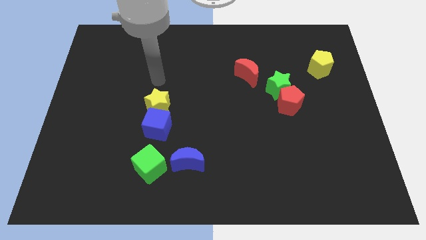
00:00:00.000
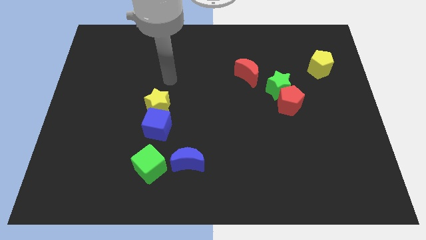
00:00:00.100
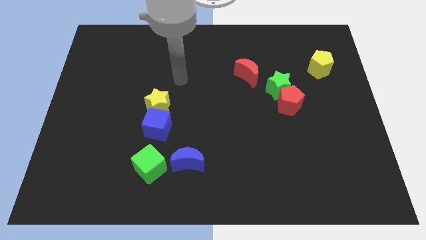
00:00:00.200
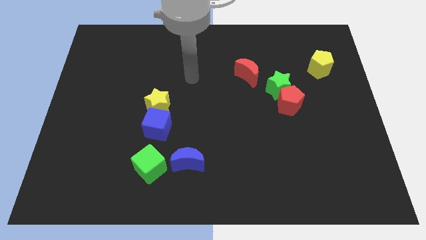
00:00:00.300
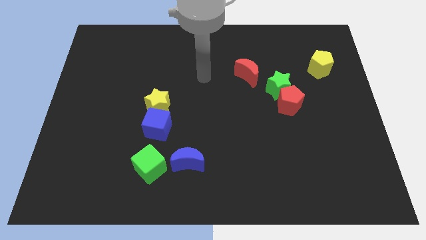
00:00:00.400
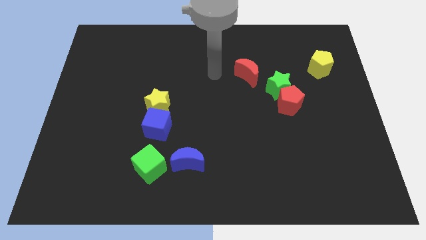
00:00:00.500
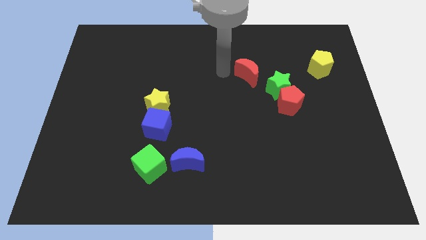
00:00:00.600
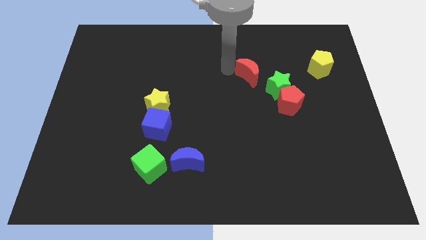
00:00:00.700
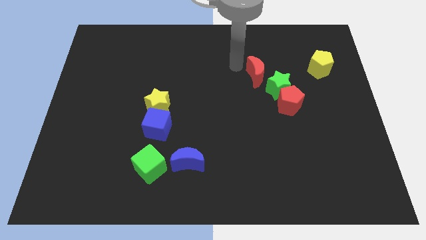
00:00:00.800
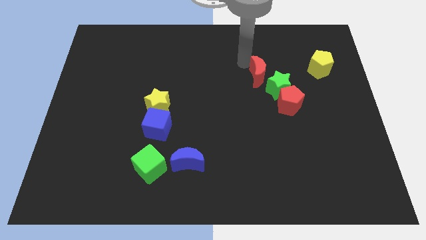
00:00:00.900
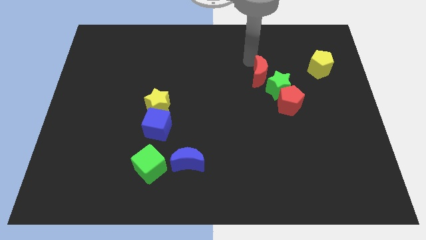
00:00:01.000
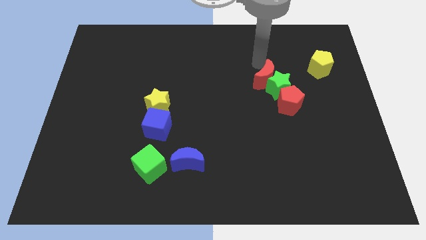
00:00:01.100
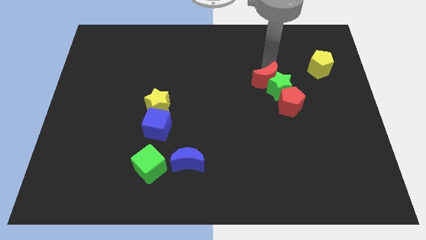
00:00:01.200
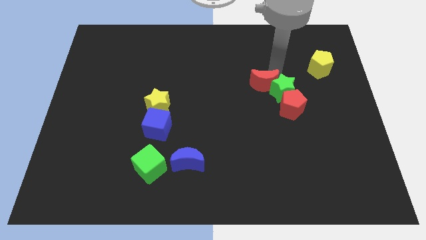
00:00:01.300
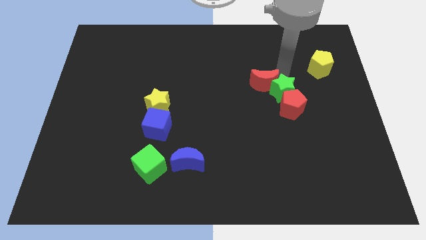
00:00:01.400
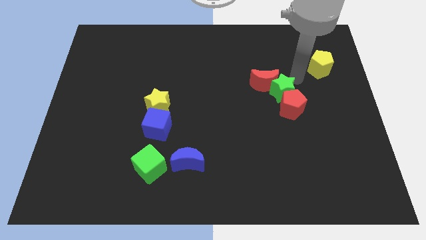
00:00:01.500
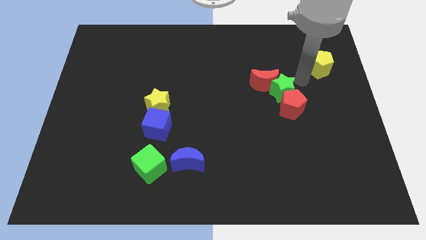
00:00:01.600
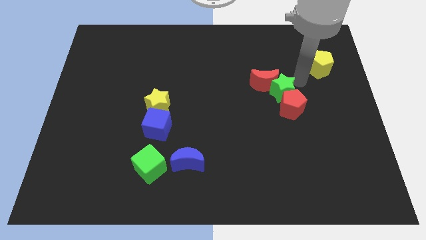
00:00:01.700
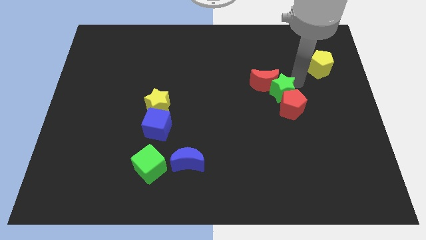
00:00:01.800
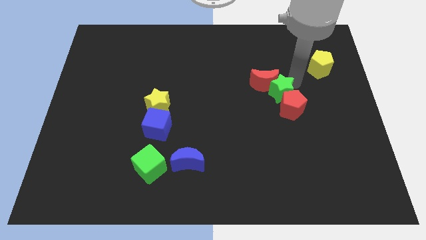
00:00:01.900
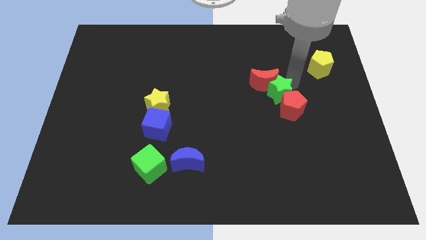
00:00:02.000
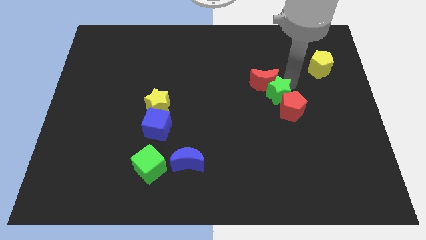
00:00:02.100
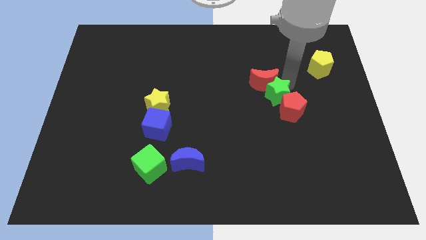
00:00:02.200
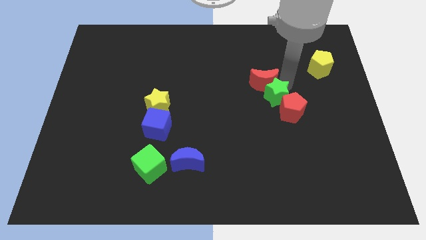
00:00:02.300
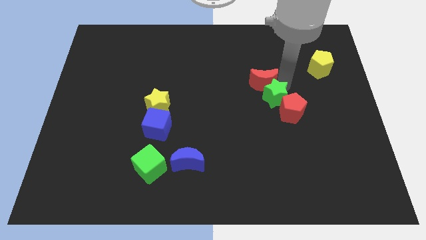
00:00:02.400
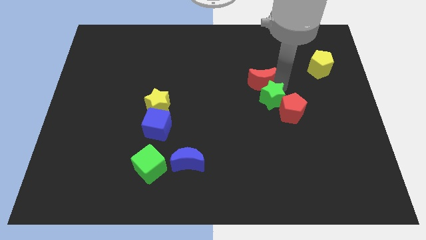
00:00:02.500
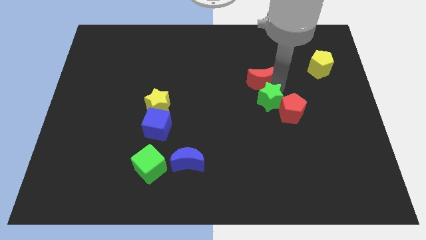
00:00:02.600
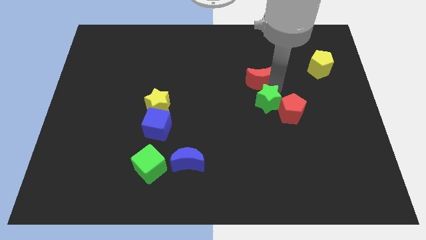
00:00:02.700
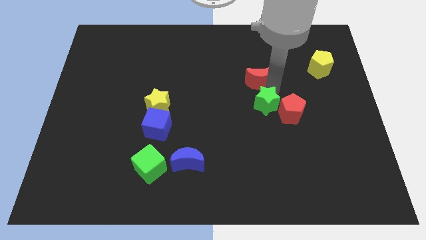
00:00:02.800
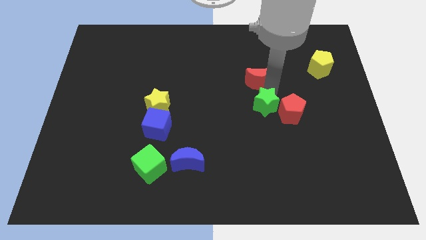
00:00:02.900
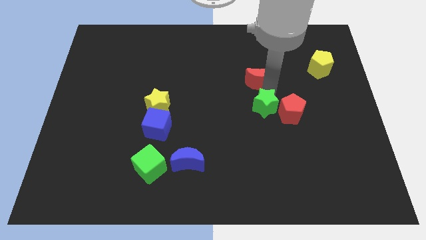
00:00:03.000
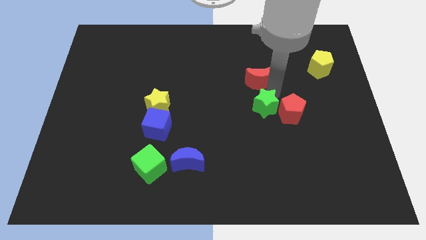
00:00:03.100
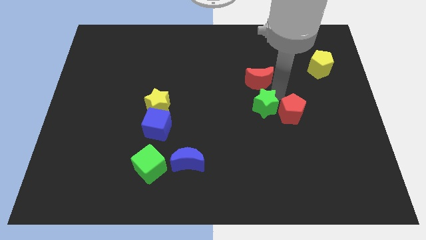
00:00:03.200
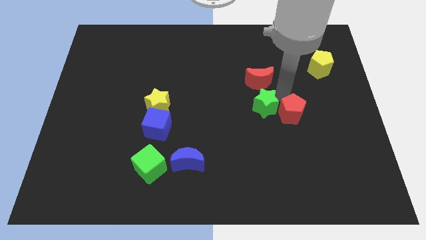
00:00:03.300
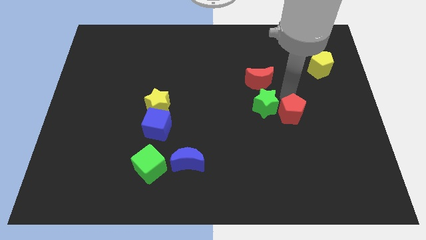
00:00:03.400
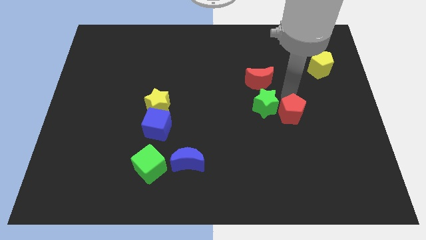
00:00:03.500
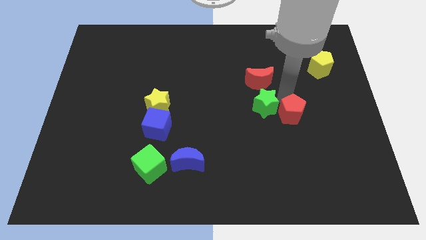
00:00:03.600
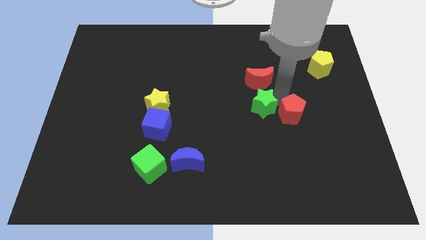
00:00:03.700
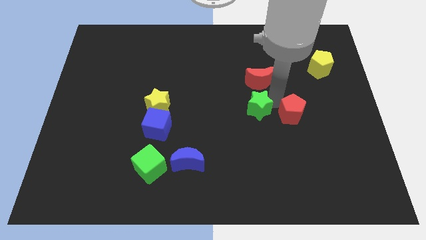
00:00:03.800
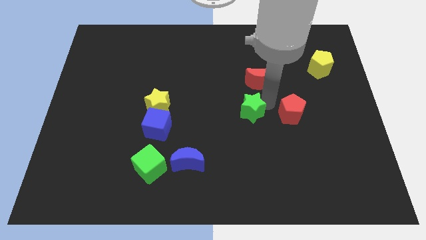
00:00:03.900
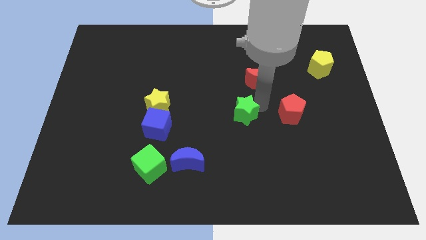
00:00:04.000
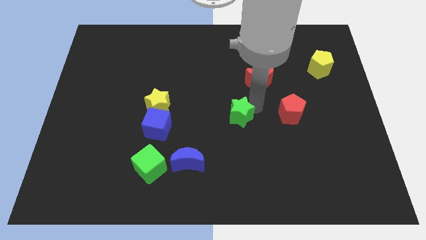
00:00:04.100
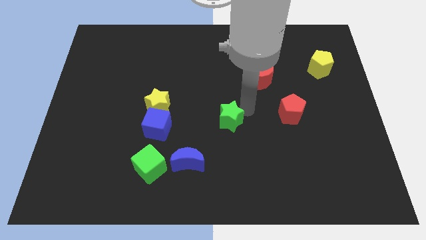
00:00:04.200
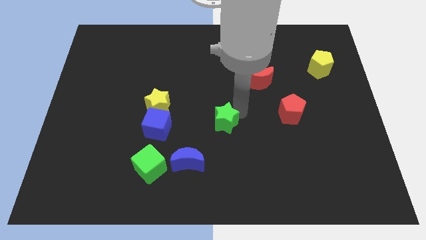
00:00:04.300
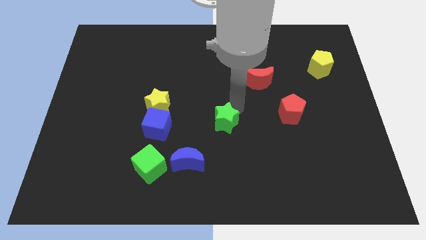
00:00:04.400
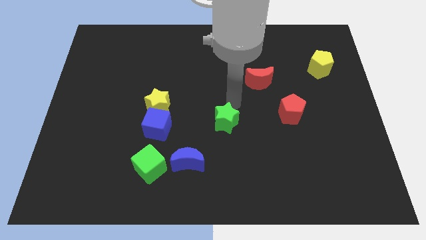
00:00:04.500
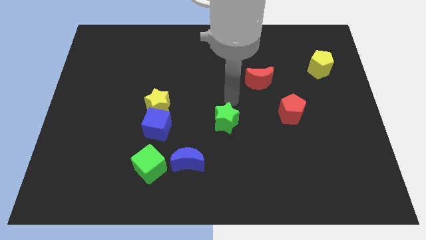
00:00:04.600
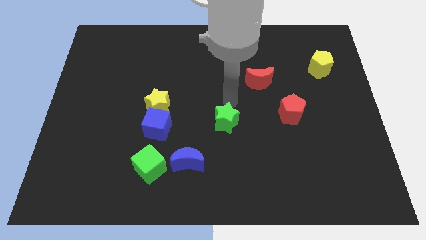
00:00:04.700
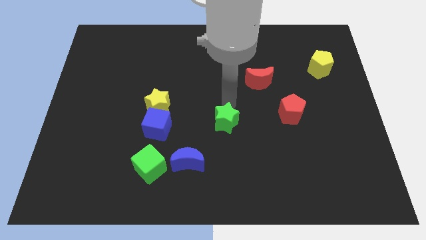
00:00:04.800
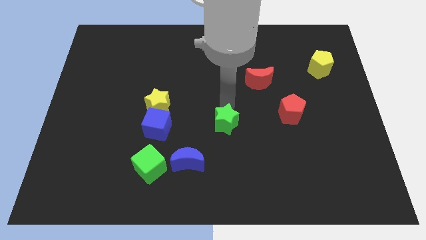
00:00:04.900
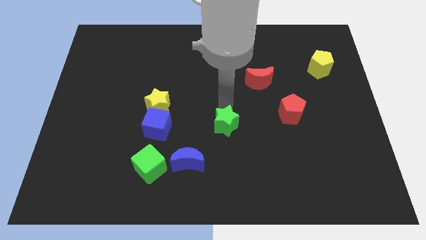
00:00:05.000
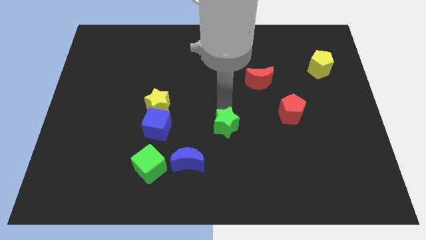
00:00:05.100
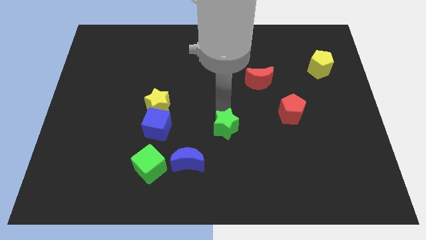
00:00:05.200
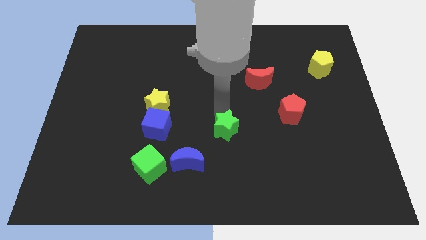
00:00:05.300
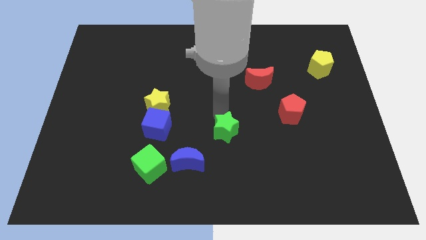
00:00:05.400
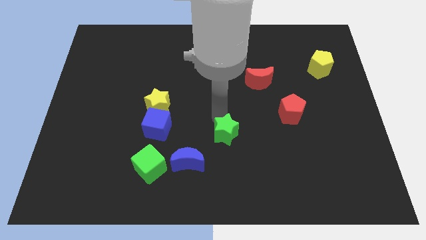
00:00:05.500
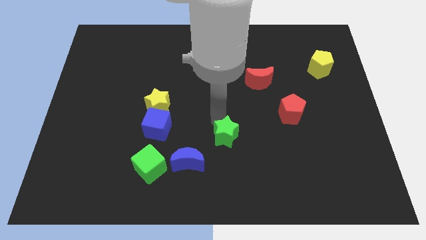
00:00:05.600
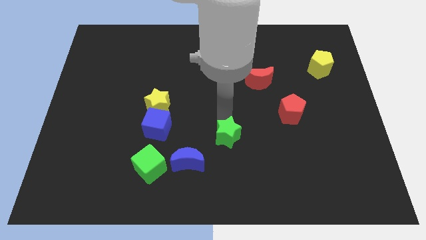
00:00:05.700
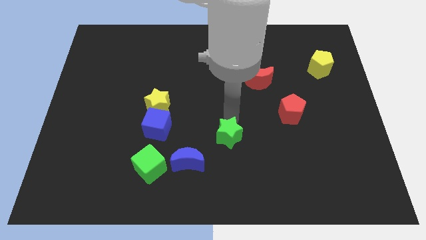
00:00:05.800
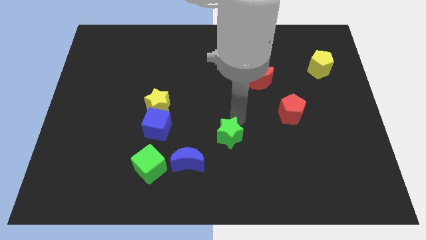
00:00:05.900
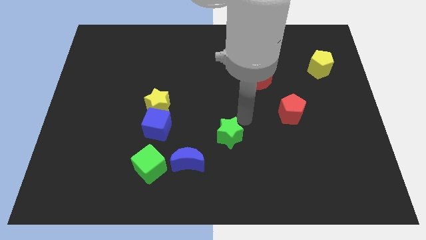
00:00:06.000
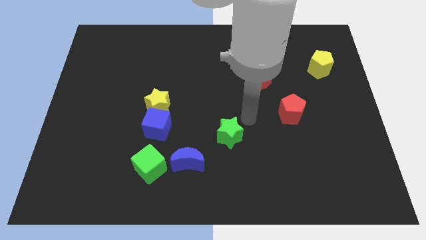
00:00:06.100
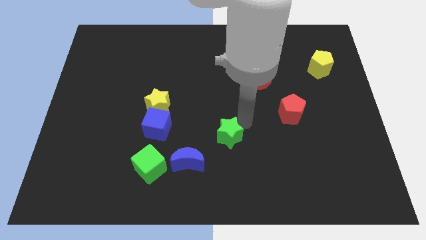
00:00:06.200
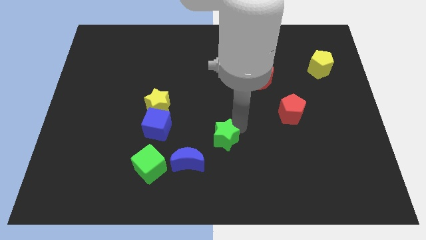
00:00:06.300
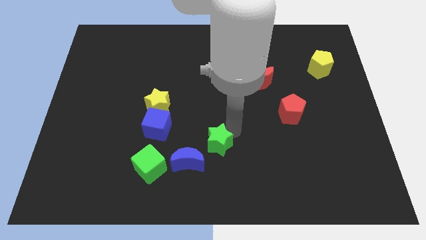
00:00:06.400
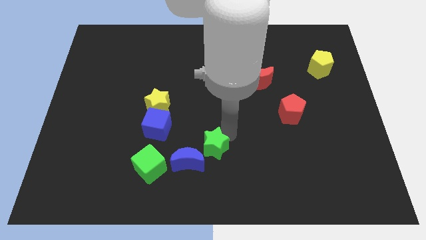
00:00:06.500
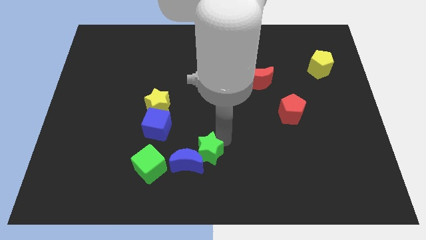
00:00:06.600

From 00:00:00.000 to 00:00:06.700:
push the green star next to the blue moon

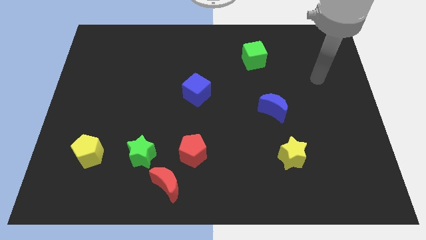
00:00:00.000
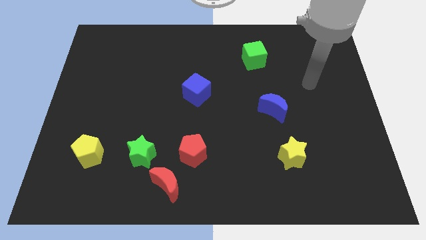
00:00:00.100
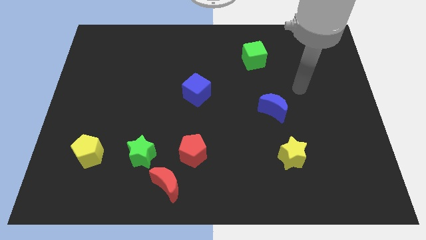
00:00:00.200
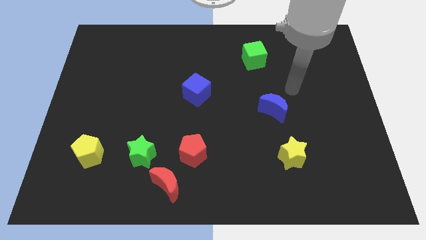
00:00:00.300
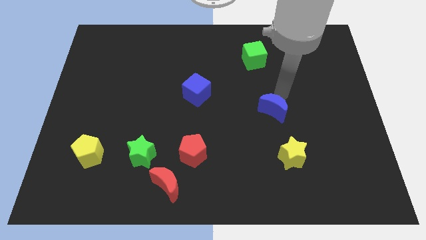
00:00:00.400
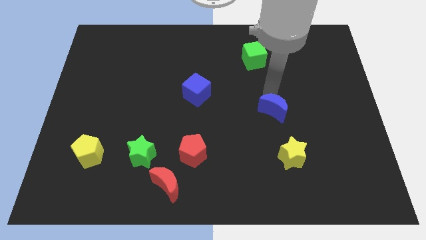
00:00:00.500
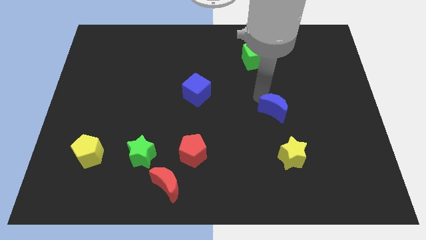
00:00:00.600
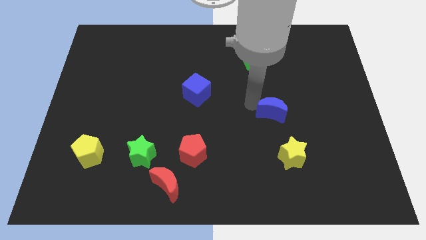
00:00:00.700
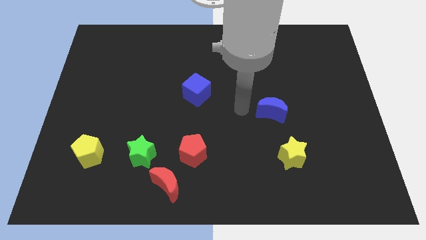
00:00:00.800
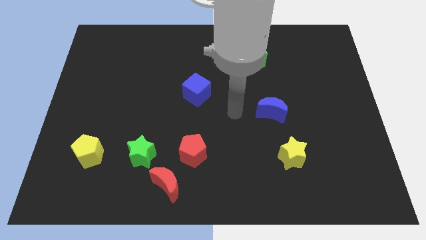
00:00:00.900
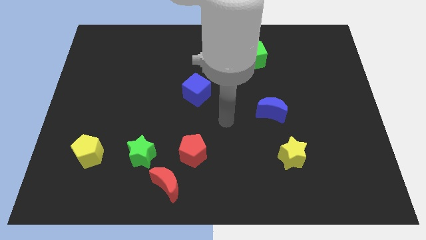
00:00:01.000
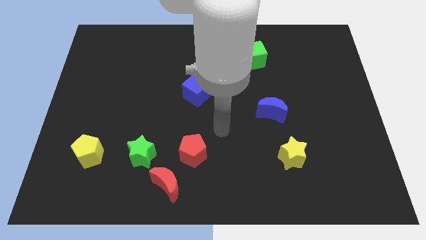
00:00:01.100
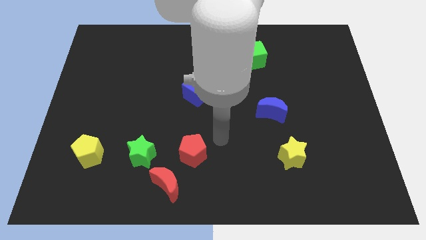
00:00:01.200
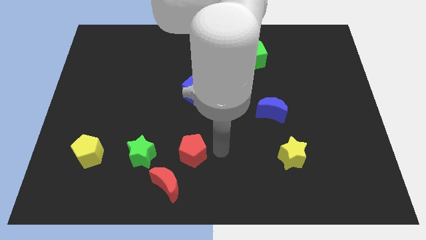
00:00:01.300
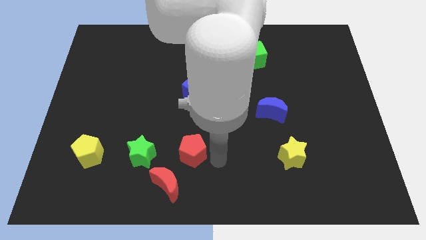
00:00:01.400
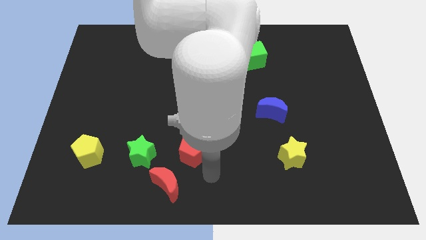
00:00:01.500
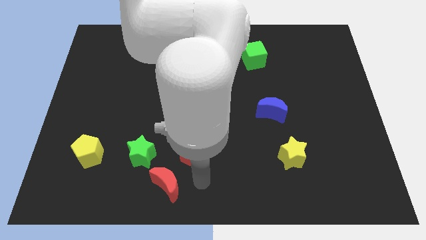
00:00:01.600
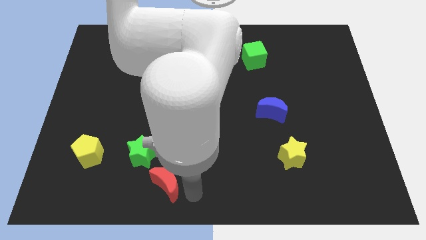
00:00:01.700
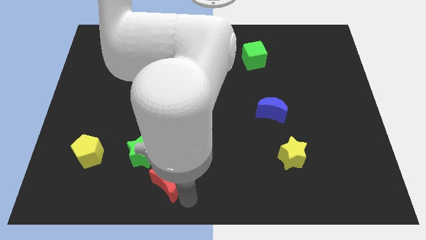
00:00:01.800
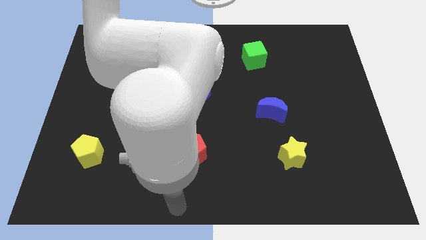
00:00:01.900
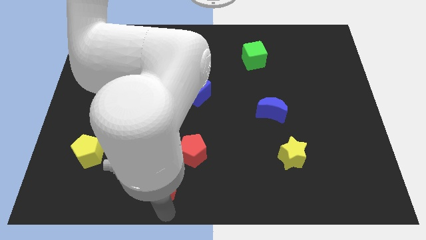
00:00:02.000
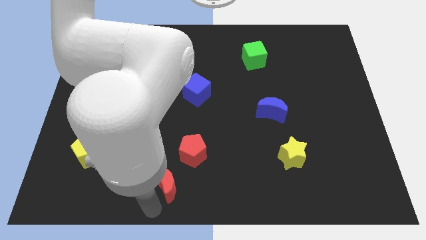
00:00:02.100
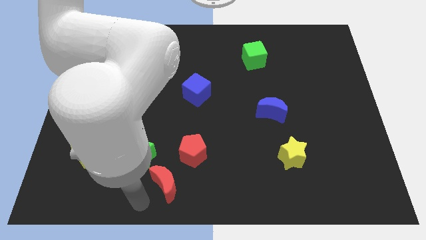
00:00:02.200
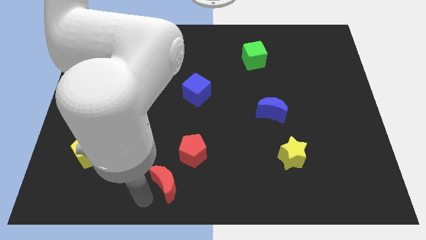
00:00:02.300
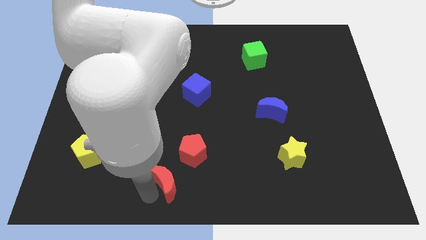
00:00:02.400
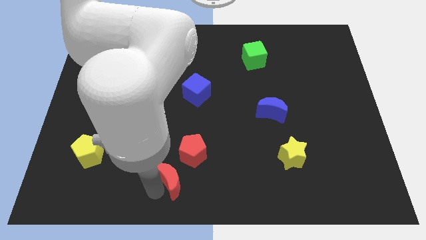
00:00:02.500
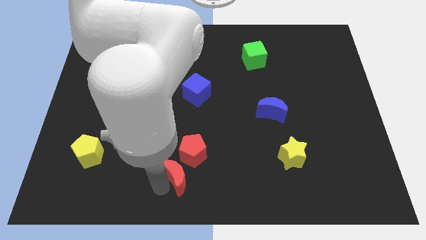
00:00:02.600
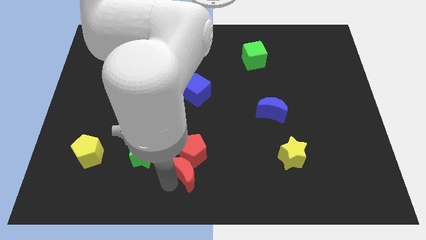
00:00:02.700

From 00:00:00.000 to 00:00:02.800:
put the red moon next to the red pentagon
